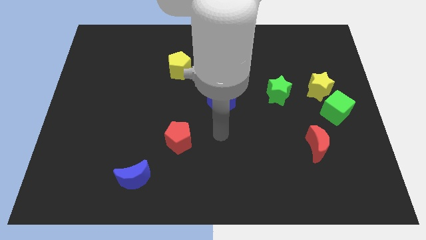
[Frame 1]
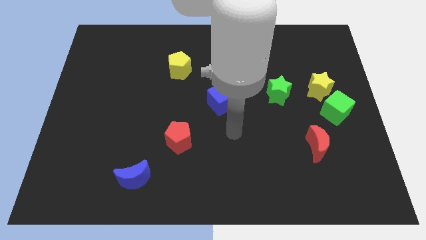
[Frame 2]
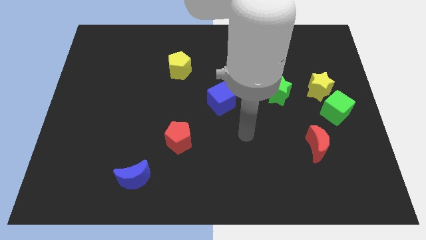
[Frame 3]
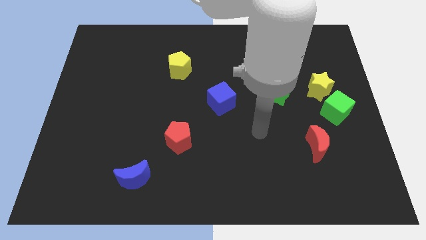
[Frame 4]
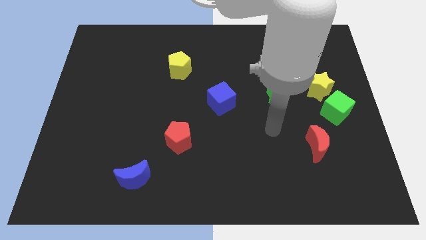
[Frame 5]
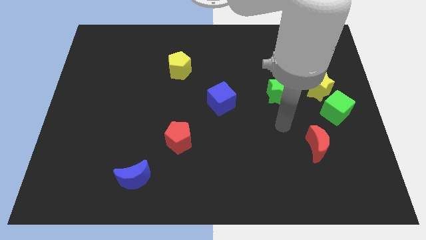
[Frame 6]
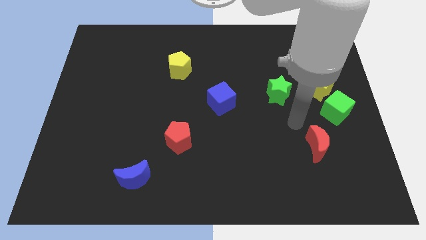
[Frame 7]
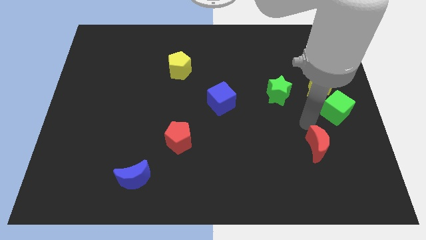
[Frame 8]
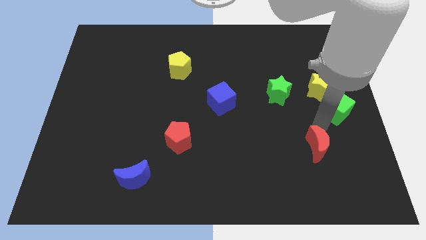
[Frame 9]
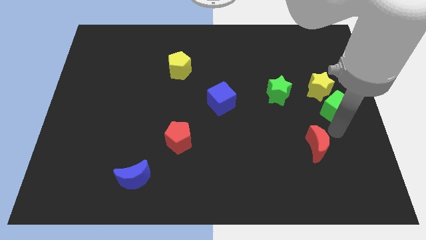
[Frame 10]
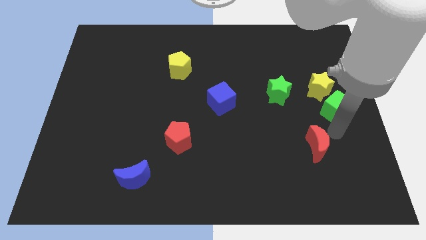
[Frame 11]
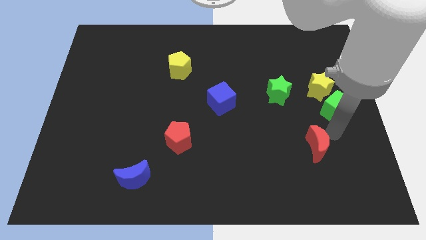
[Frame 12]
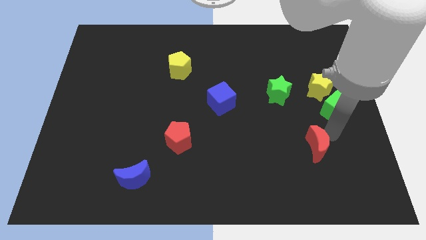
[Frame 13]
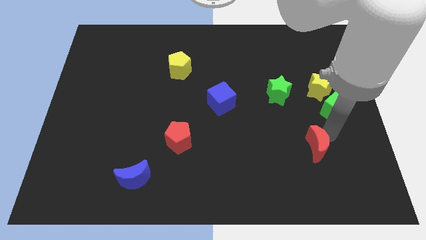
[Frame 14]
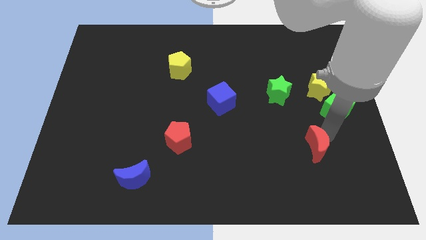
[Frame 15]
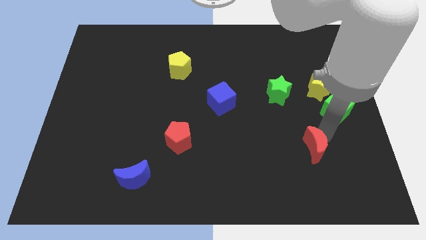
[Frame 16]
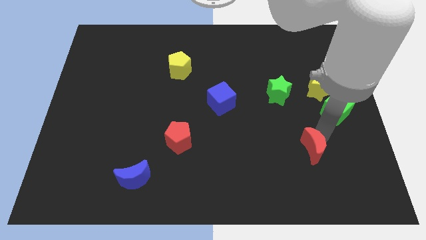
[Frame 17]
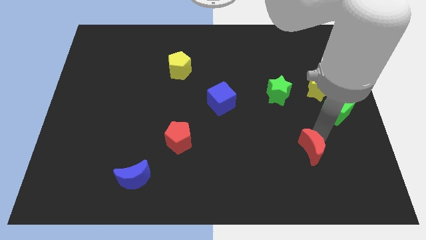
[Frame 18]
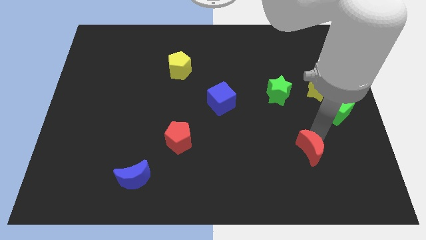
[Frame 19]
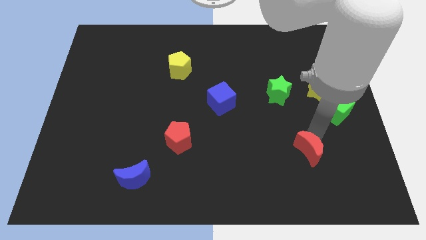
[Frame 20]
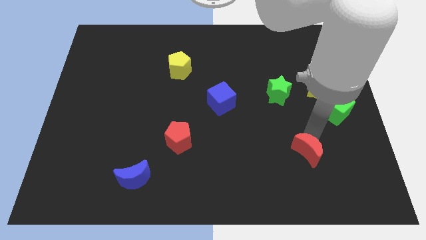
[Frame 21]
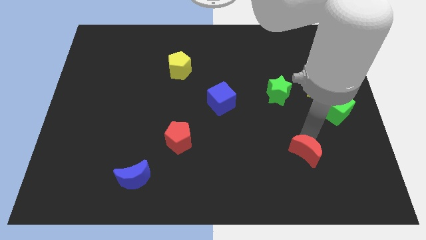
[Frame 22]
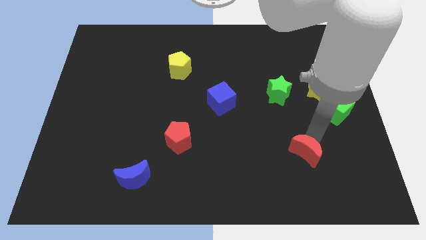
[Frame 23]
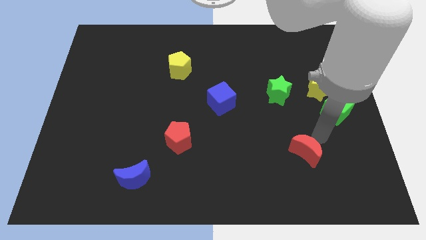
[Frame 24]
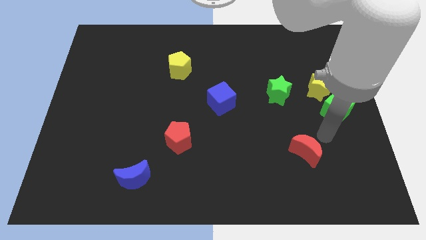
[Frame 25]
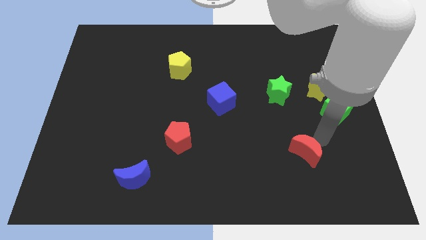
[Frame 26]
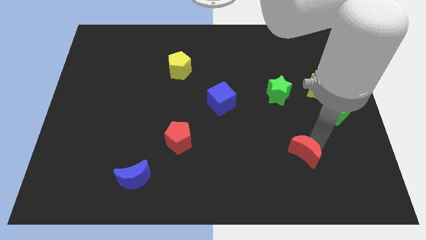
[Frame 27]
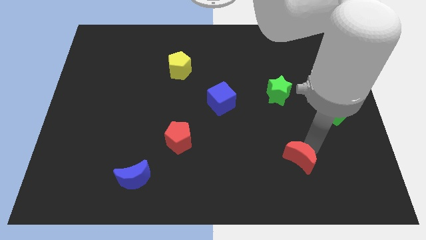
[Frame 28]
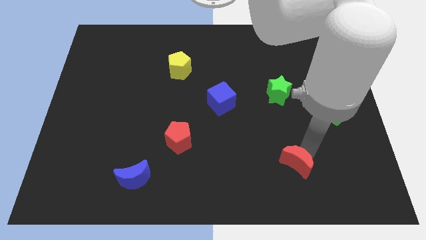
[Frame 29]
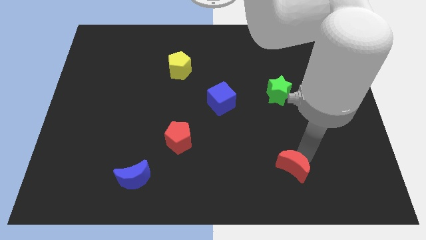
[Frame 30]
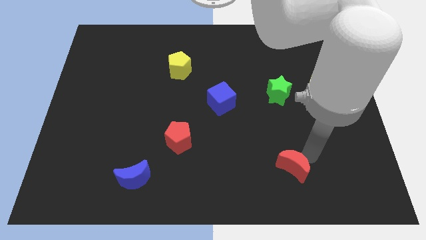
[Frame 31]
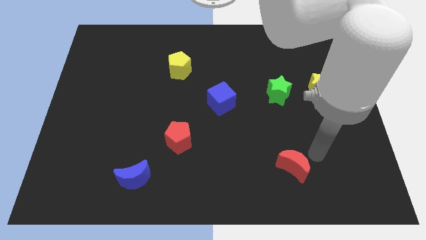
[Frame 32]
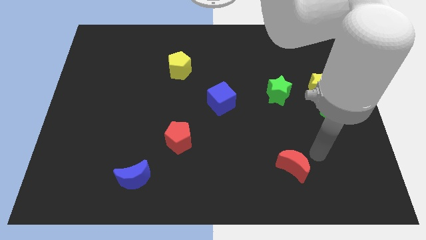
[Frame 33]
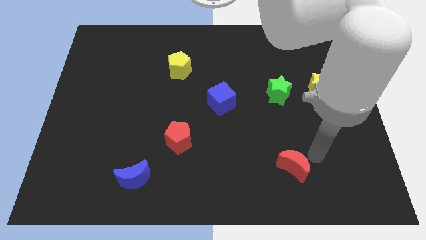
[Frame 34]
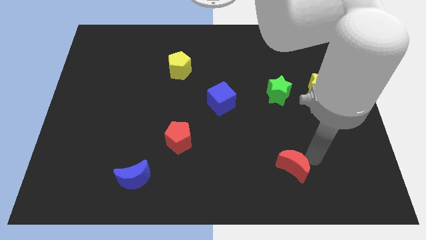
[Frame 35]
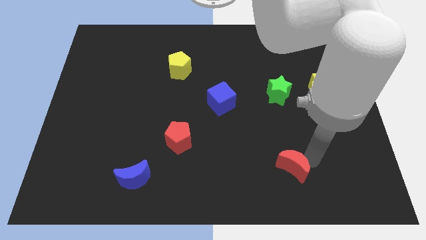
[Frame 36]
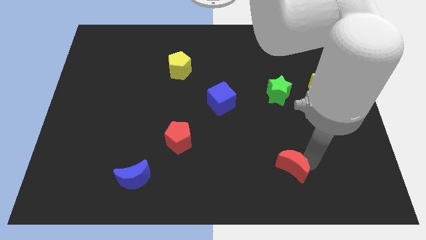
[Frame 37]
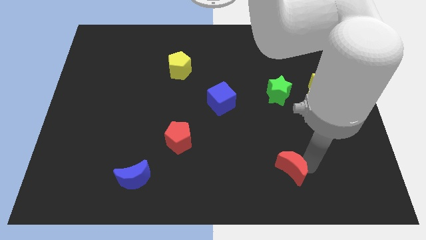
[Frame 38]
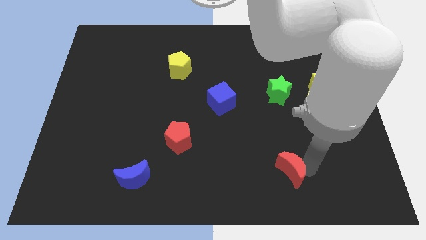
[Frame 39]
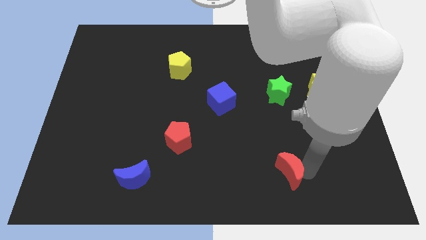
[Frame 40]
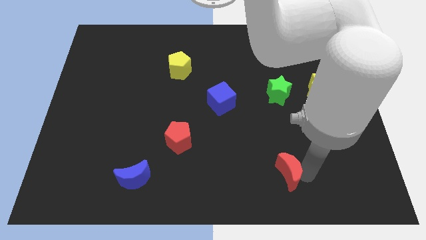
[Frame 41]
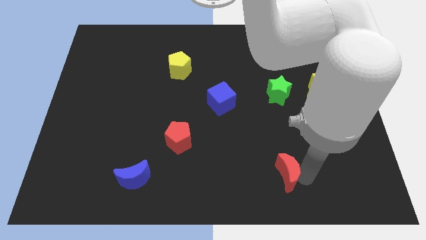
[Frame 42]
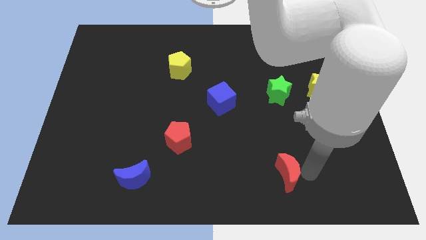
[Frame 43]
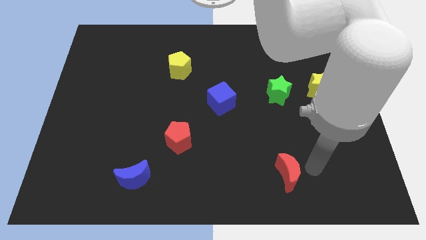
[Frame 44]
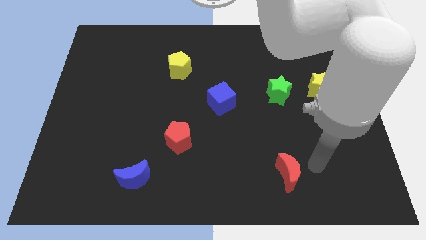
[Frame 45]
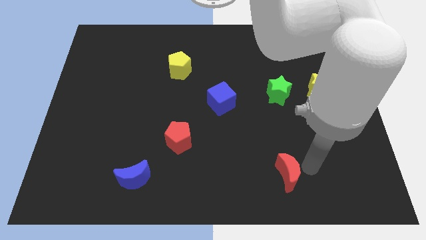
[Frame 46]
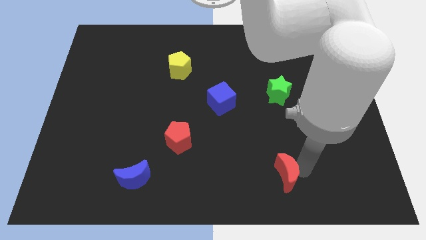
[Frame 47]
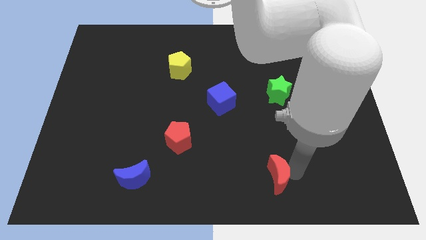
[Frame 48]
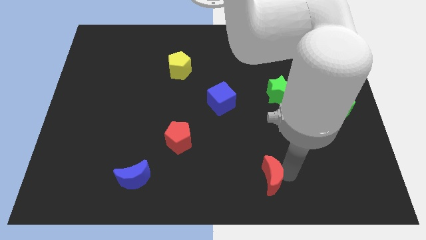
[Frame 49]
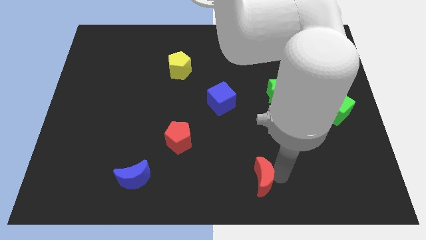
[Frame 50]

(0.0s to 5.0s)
put the red moon to the bottom side

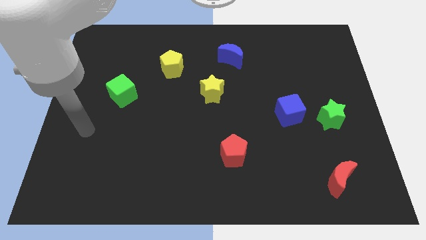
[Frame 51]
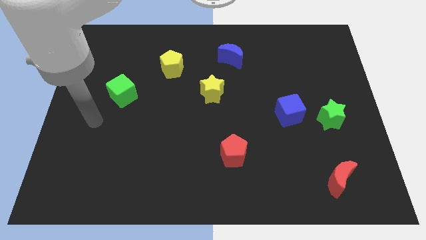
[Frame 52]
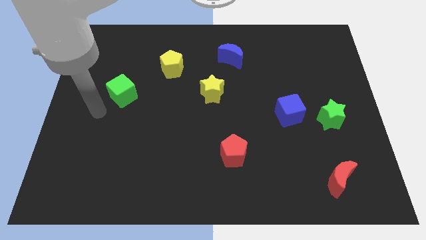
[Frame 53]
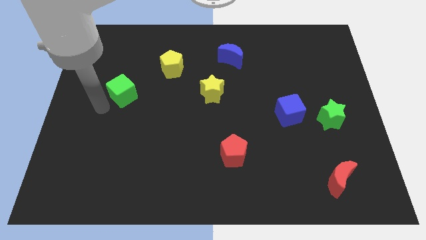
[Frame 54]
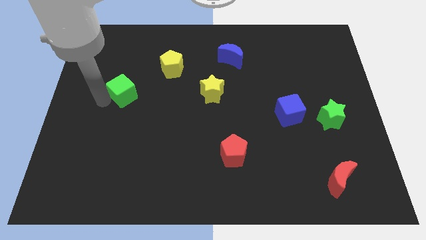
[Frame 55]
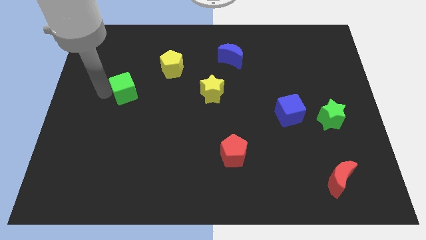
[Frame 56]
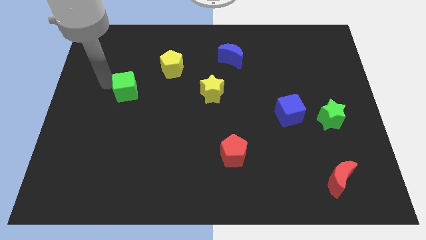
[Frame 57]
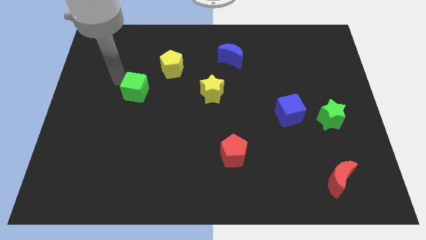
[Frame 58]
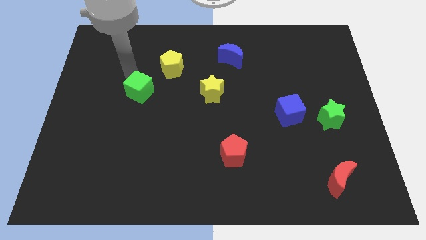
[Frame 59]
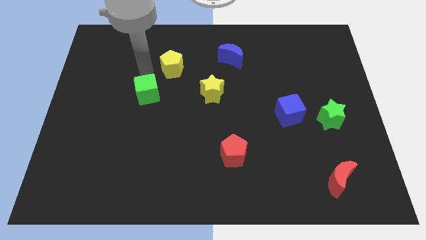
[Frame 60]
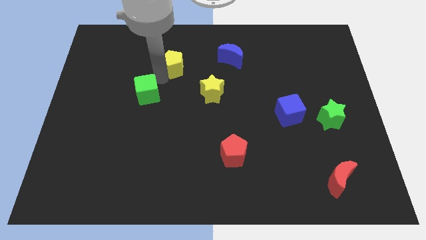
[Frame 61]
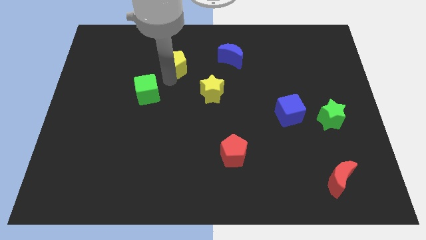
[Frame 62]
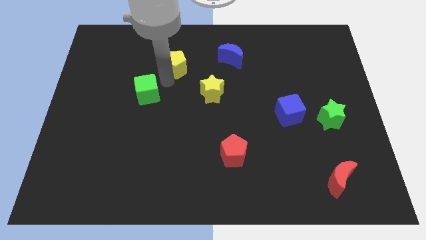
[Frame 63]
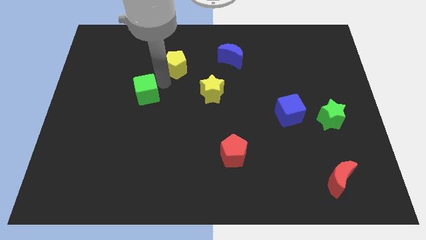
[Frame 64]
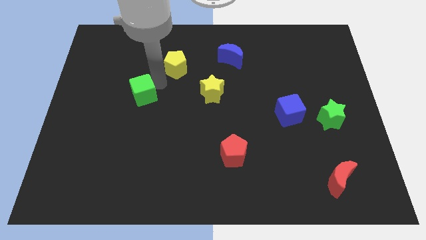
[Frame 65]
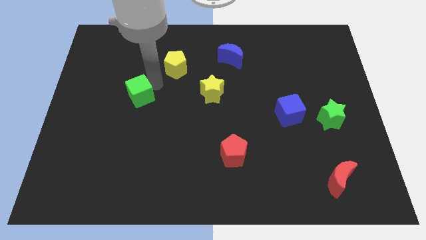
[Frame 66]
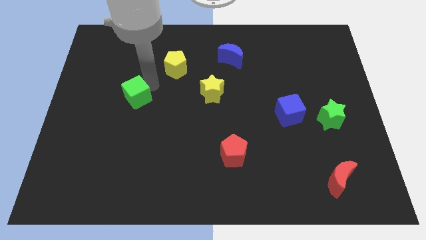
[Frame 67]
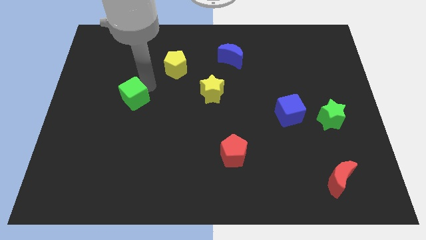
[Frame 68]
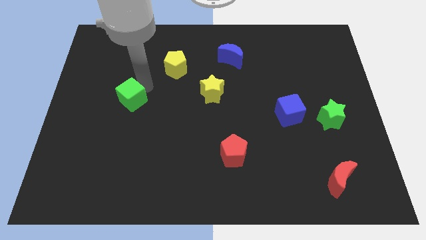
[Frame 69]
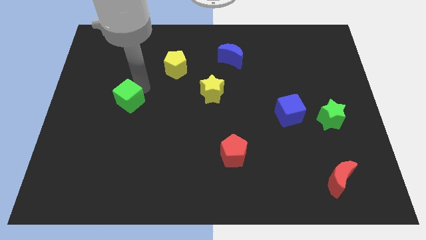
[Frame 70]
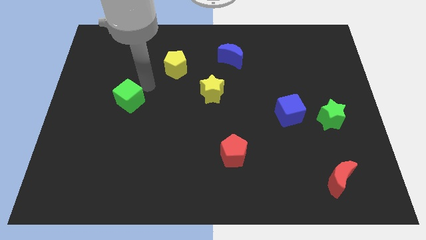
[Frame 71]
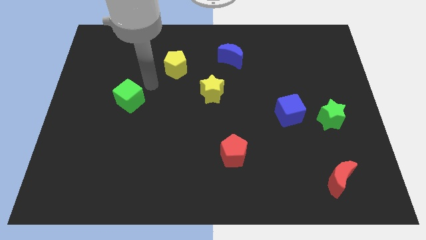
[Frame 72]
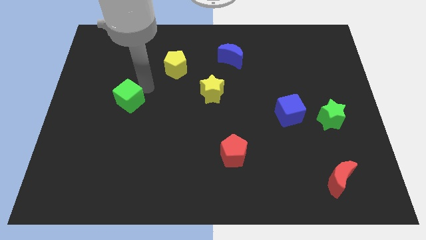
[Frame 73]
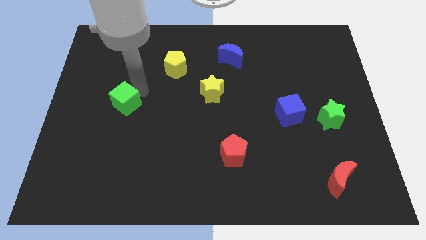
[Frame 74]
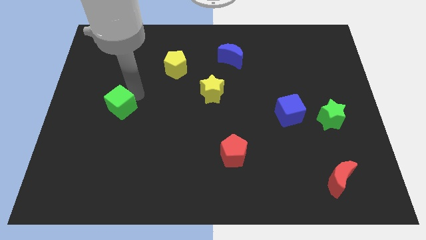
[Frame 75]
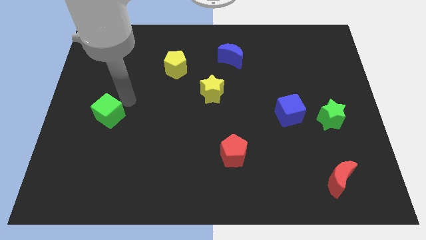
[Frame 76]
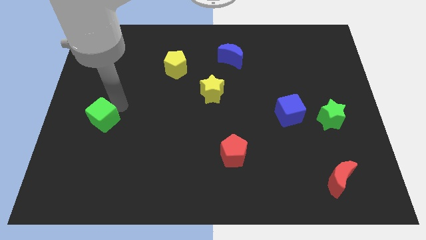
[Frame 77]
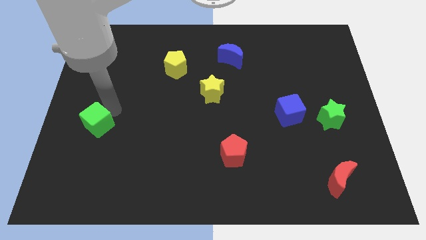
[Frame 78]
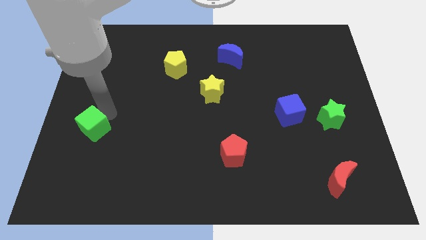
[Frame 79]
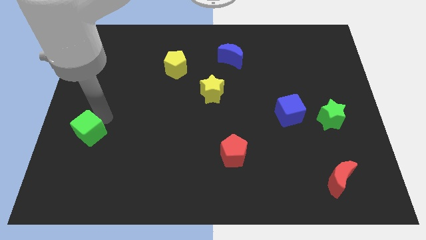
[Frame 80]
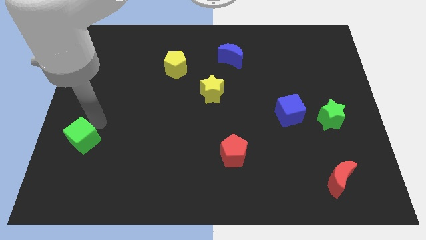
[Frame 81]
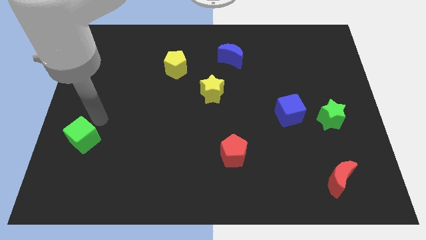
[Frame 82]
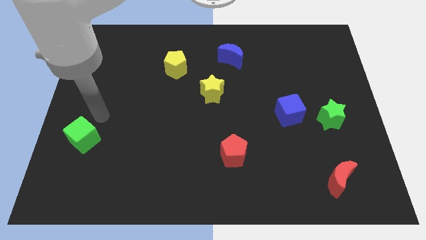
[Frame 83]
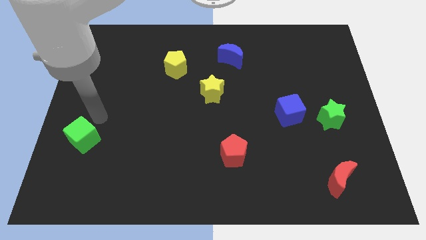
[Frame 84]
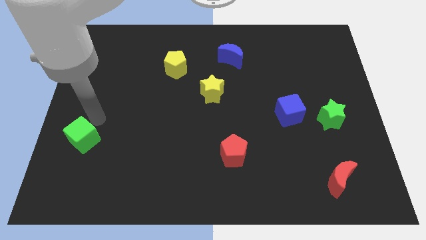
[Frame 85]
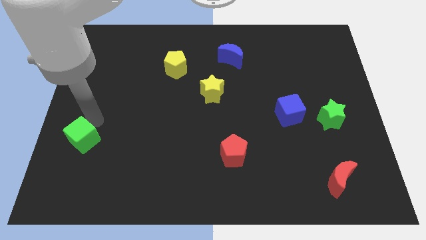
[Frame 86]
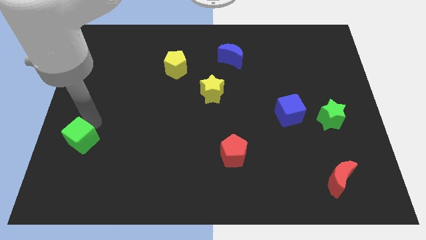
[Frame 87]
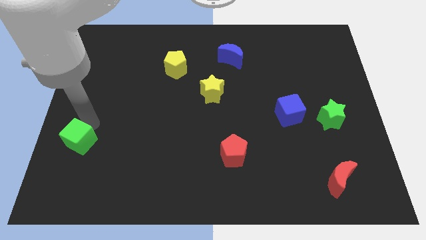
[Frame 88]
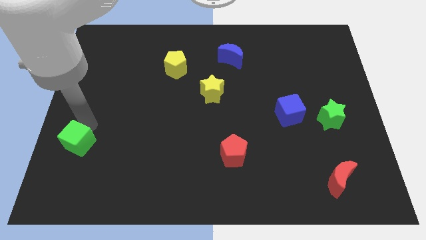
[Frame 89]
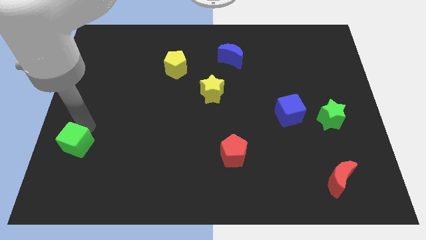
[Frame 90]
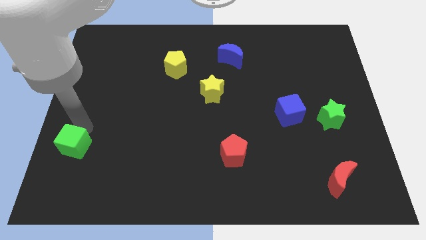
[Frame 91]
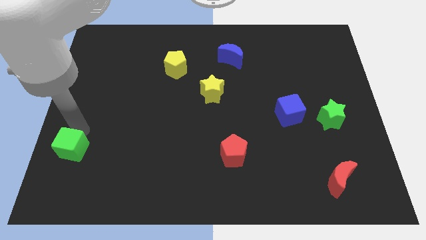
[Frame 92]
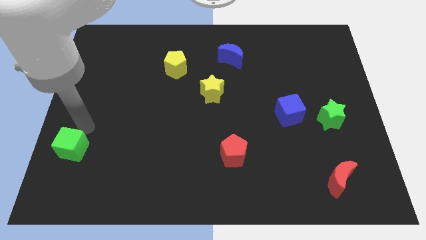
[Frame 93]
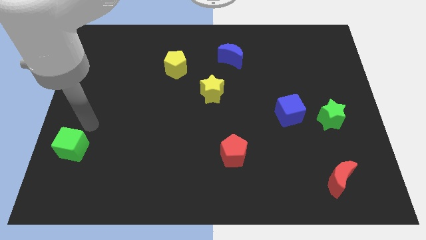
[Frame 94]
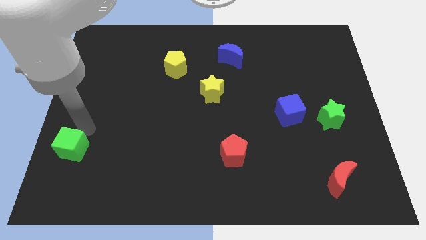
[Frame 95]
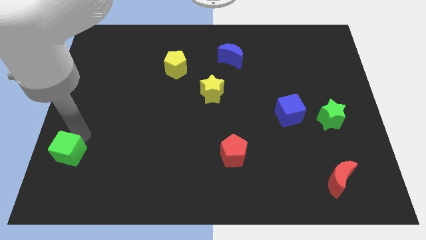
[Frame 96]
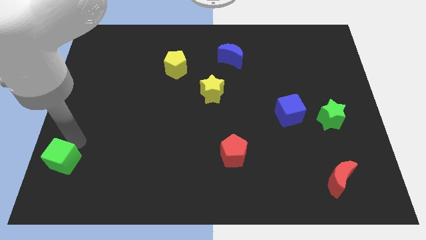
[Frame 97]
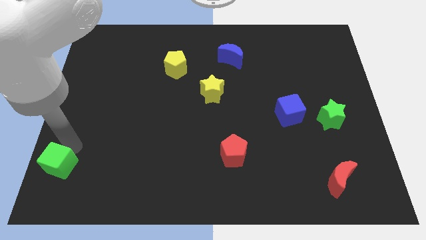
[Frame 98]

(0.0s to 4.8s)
put the green cube to the bottom left corner
